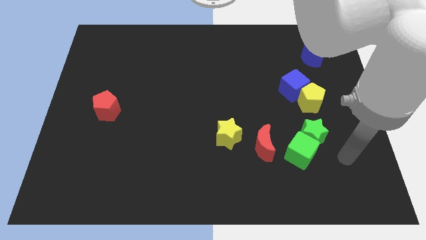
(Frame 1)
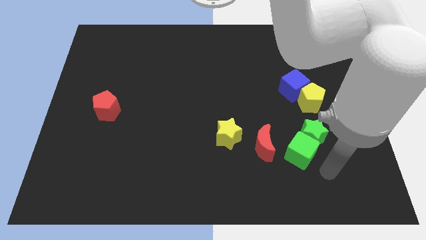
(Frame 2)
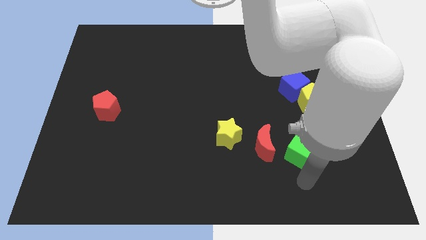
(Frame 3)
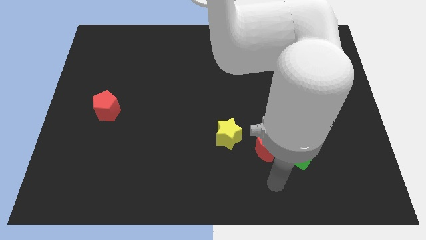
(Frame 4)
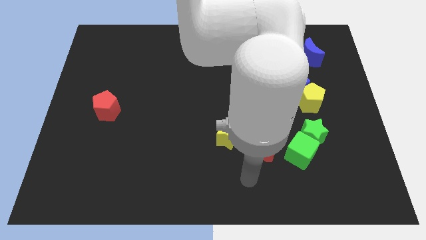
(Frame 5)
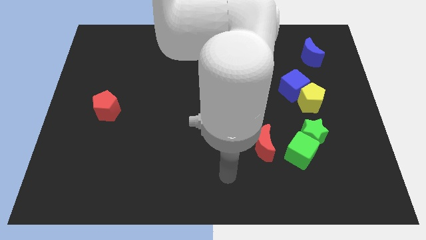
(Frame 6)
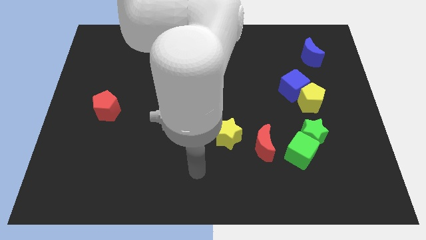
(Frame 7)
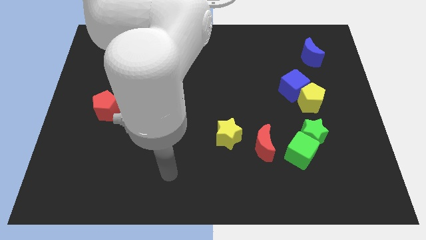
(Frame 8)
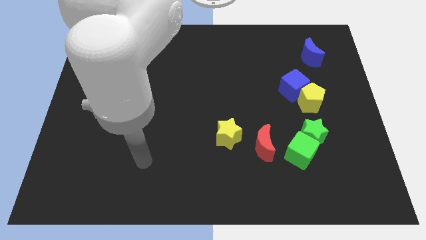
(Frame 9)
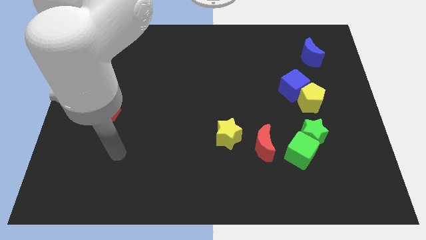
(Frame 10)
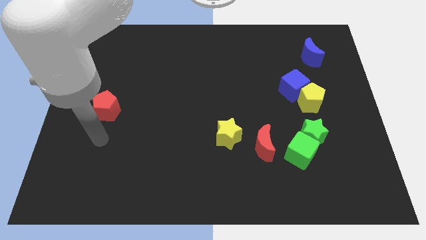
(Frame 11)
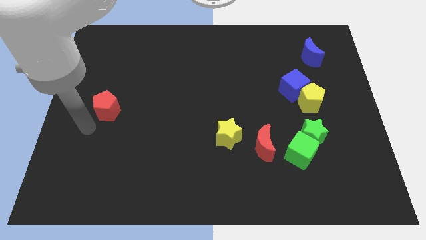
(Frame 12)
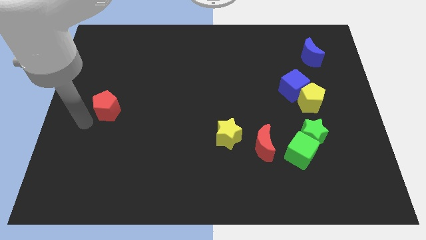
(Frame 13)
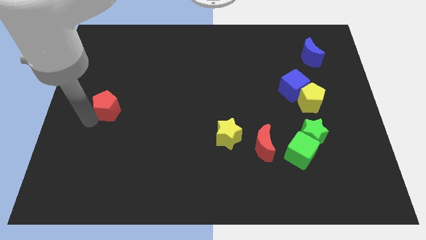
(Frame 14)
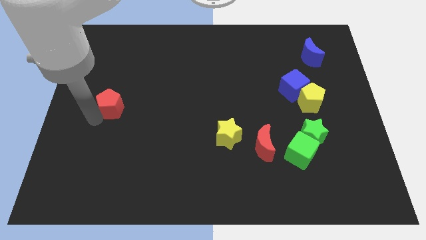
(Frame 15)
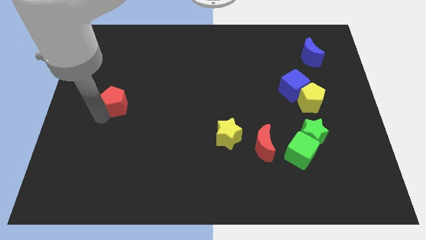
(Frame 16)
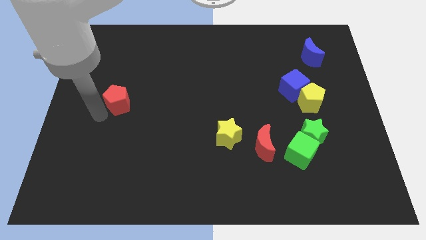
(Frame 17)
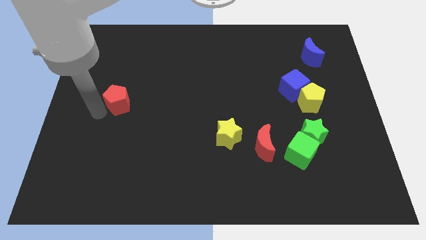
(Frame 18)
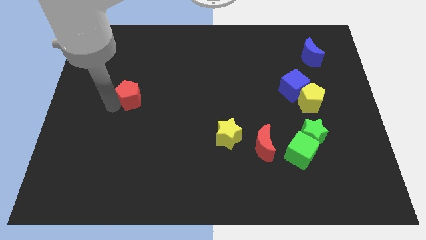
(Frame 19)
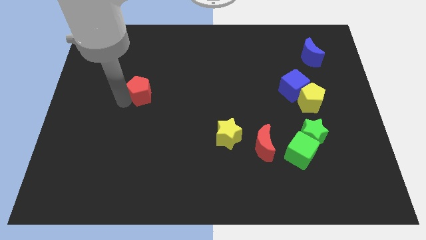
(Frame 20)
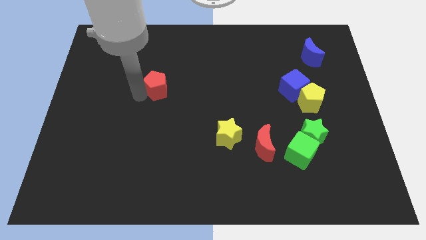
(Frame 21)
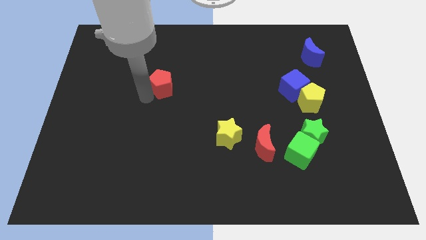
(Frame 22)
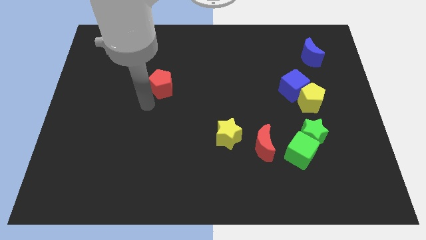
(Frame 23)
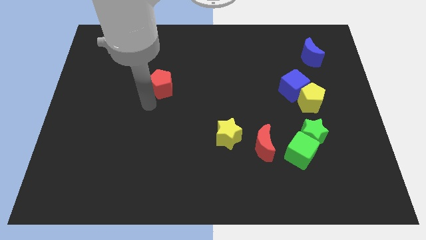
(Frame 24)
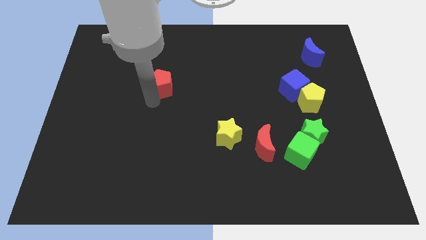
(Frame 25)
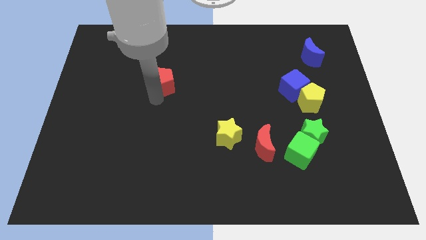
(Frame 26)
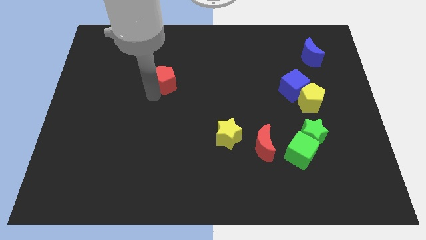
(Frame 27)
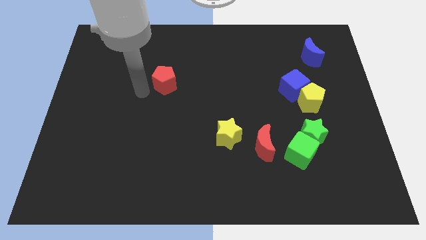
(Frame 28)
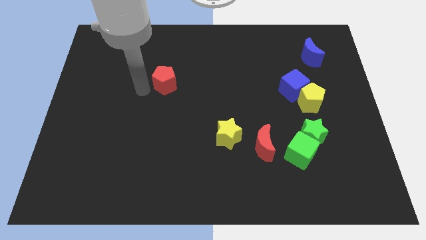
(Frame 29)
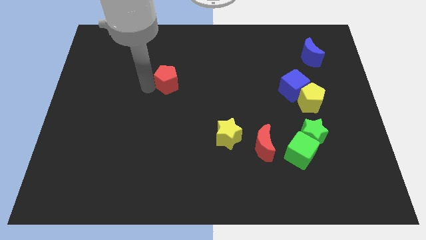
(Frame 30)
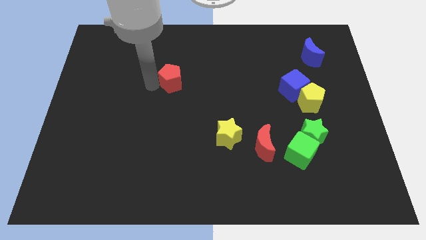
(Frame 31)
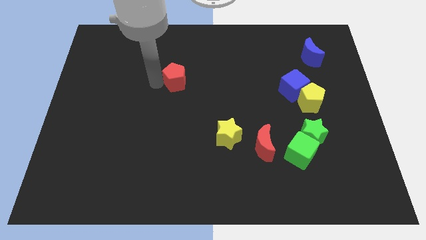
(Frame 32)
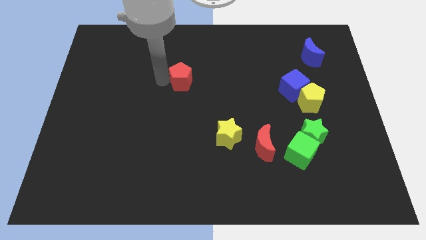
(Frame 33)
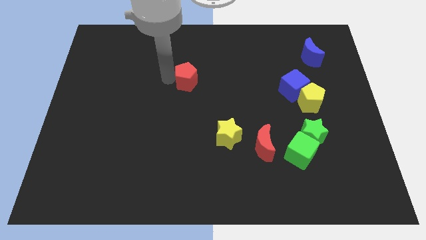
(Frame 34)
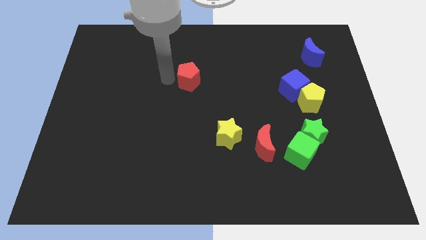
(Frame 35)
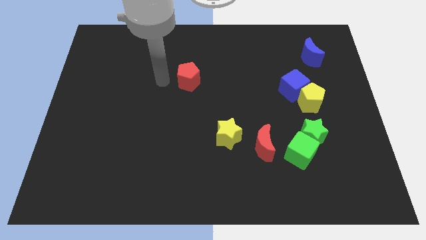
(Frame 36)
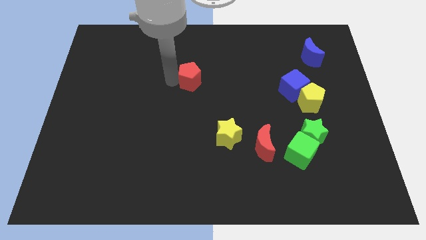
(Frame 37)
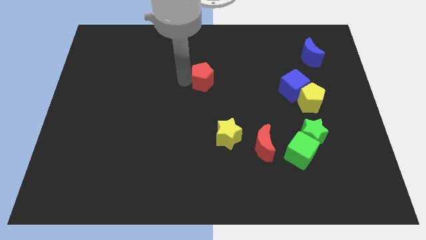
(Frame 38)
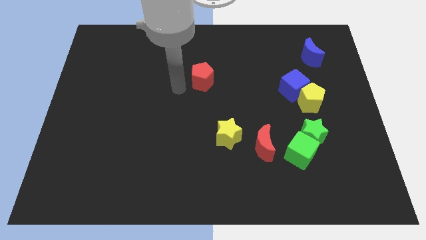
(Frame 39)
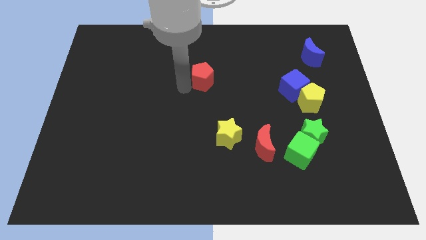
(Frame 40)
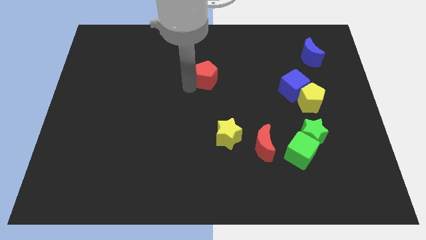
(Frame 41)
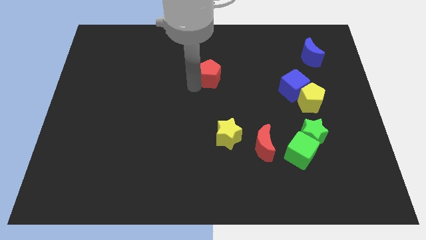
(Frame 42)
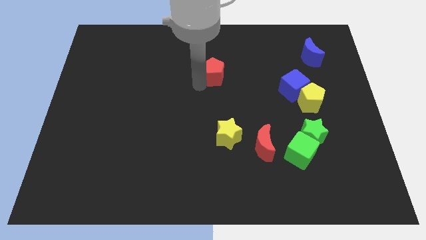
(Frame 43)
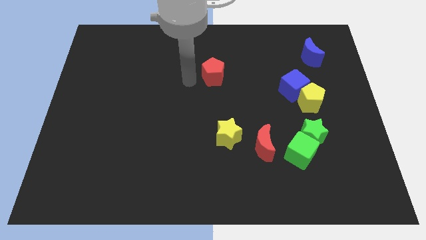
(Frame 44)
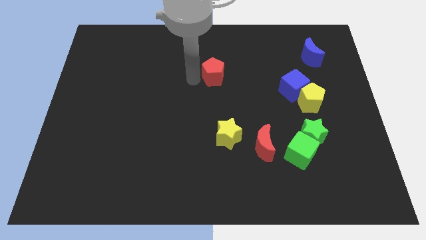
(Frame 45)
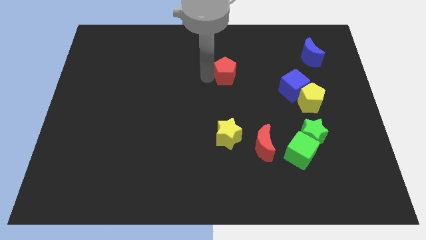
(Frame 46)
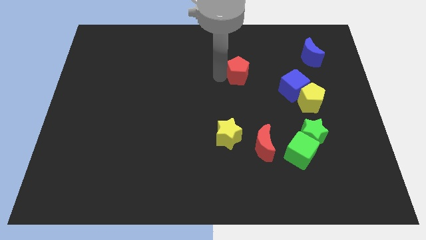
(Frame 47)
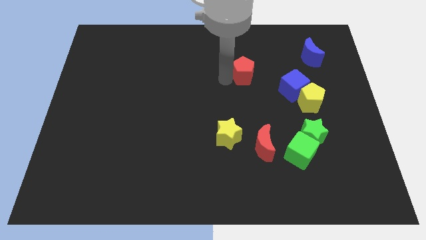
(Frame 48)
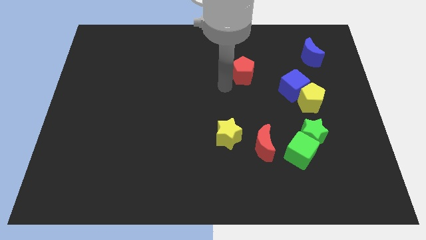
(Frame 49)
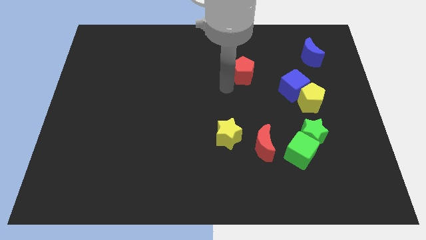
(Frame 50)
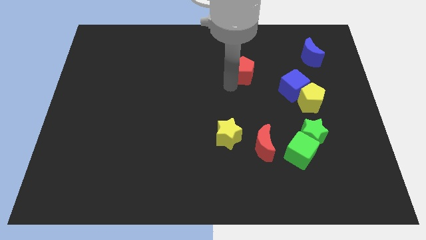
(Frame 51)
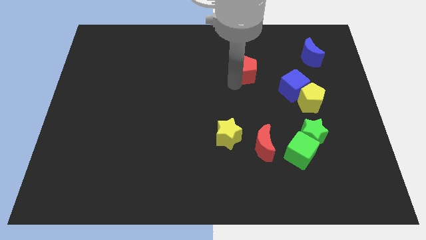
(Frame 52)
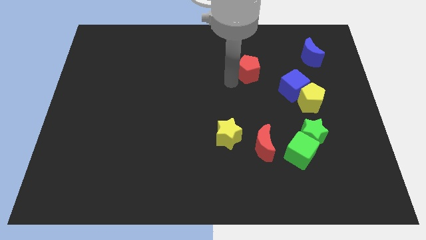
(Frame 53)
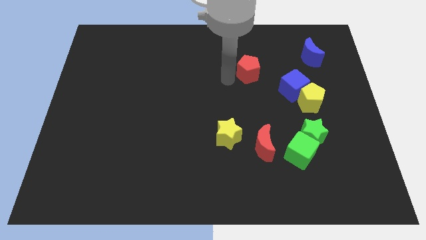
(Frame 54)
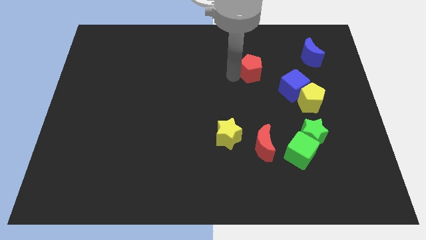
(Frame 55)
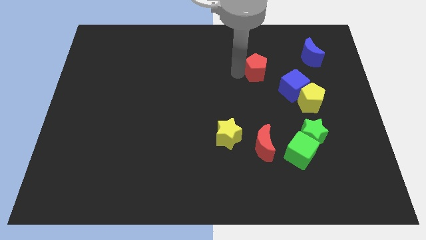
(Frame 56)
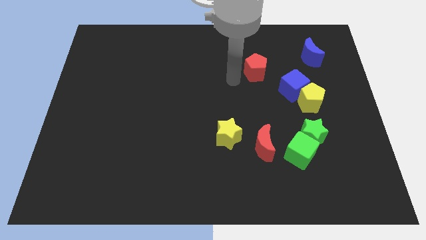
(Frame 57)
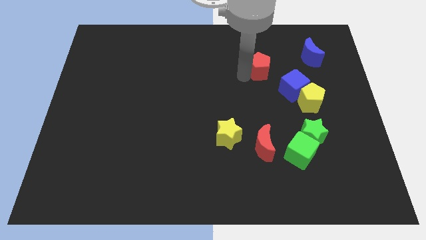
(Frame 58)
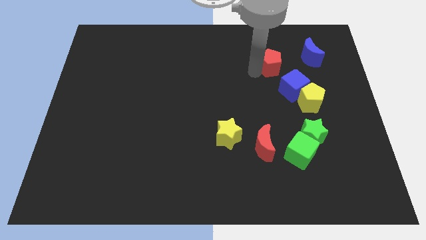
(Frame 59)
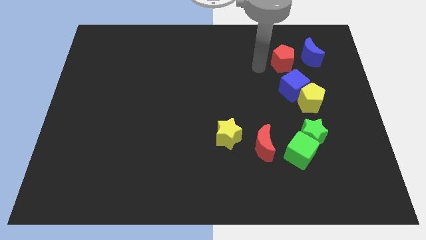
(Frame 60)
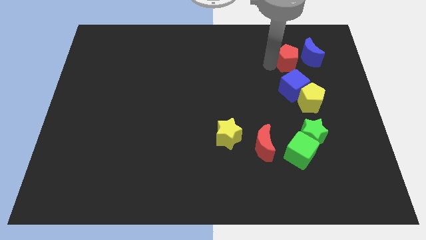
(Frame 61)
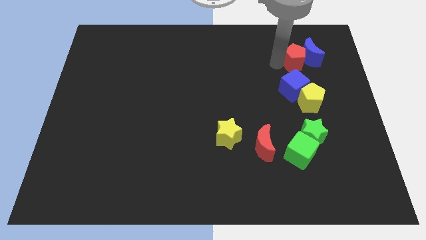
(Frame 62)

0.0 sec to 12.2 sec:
move the red pentagon towards the blue moon
